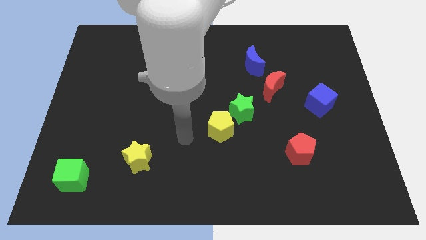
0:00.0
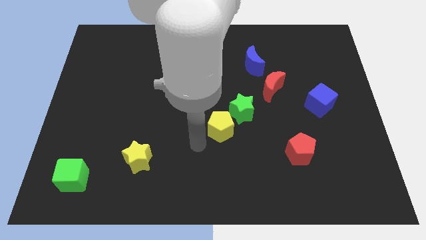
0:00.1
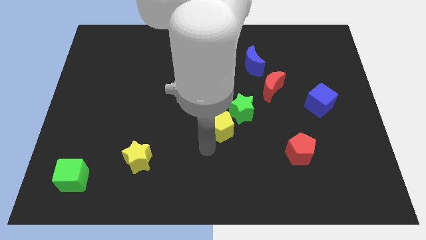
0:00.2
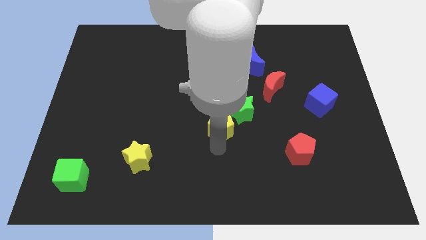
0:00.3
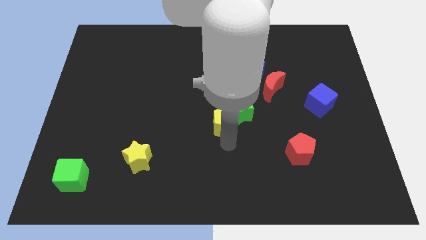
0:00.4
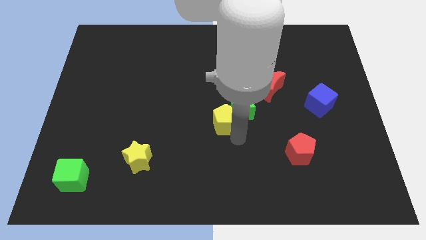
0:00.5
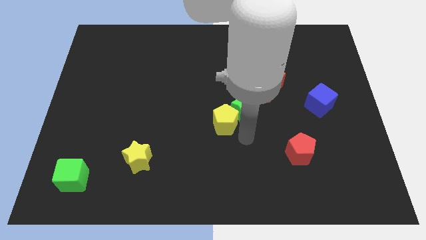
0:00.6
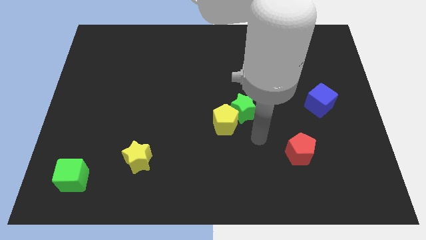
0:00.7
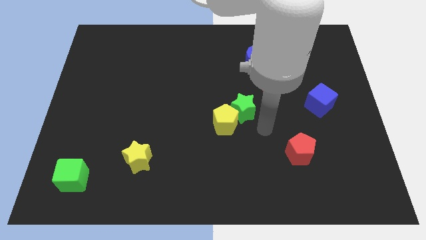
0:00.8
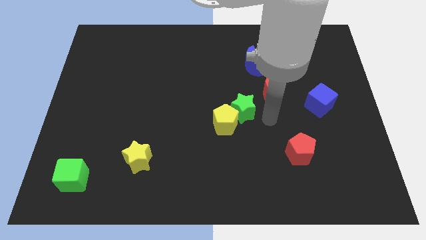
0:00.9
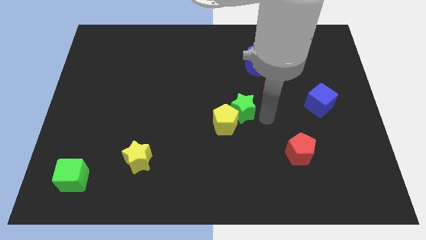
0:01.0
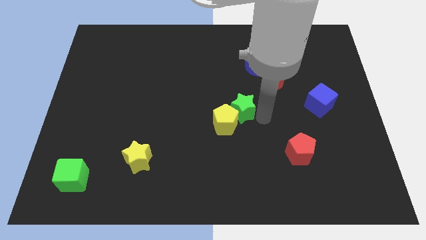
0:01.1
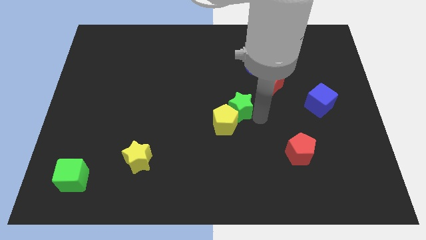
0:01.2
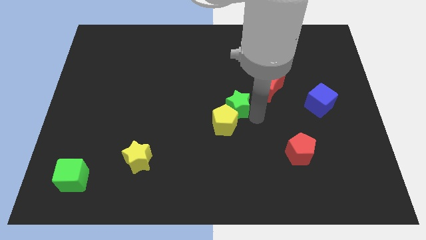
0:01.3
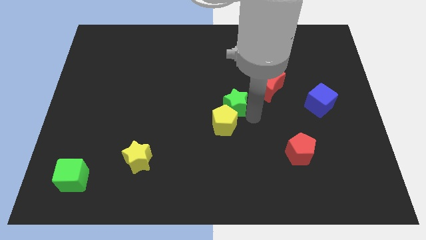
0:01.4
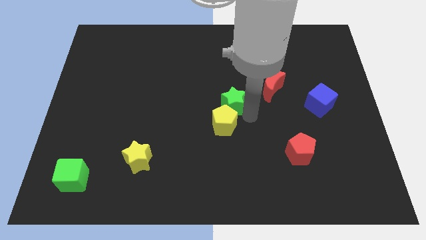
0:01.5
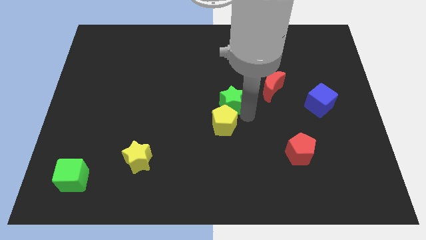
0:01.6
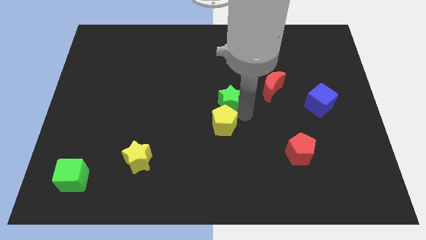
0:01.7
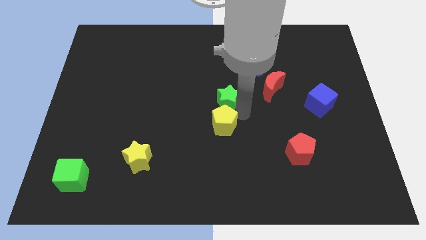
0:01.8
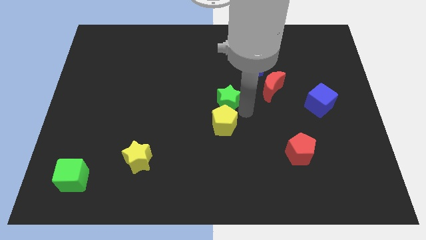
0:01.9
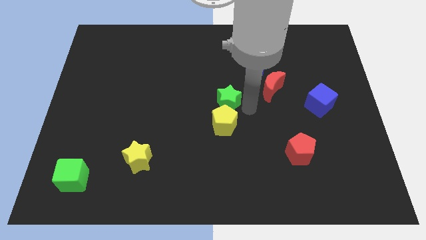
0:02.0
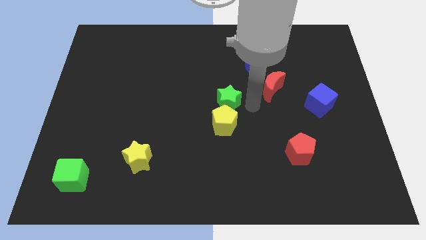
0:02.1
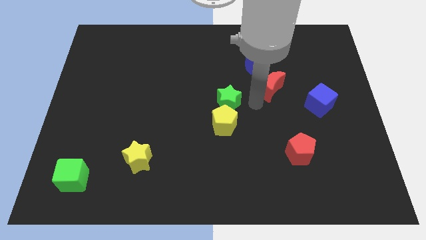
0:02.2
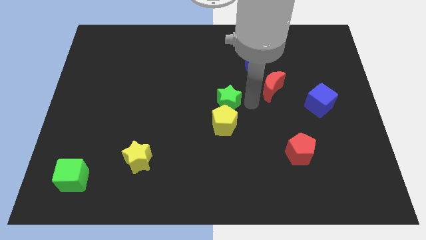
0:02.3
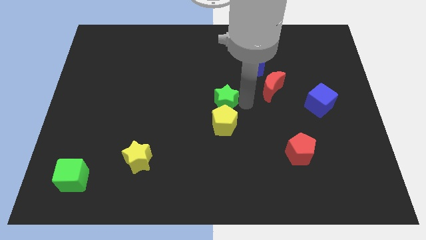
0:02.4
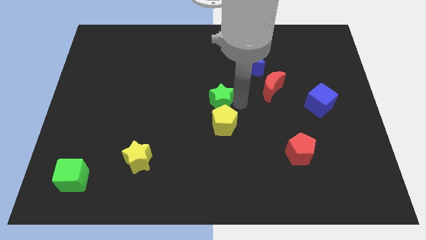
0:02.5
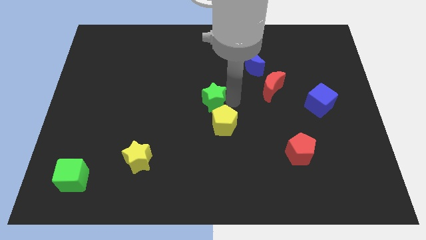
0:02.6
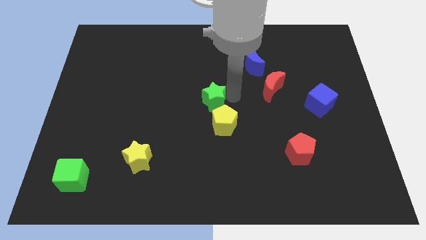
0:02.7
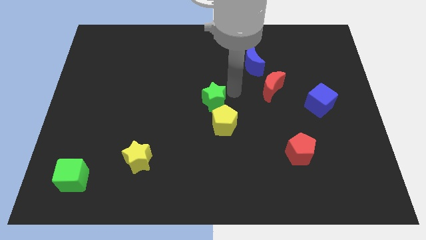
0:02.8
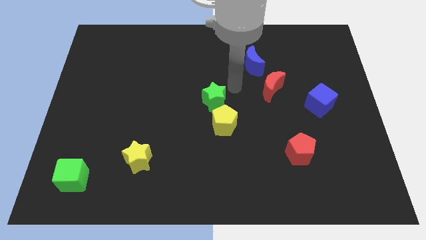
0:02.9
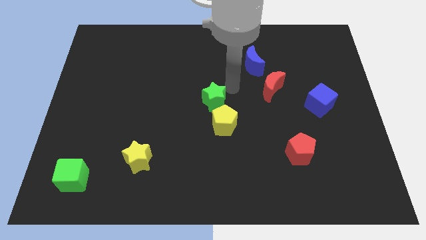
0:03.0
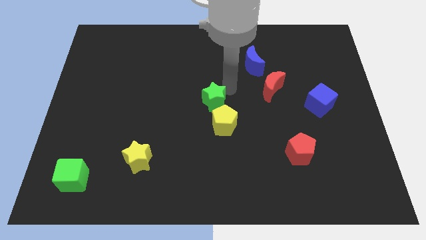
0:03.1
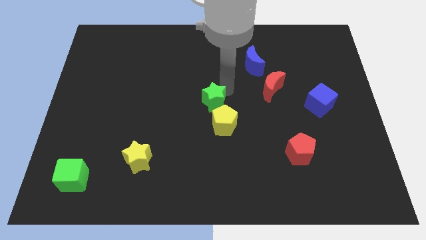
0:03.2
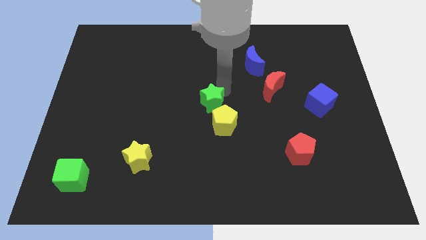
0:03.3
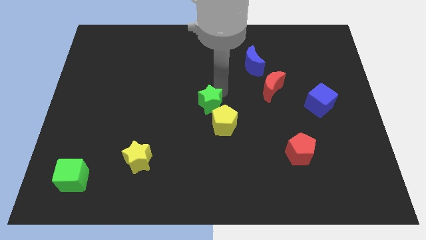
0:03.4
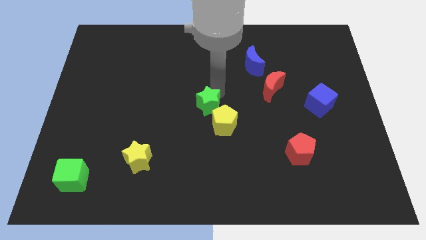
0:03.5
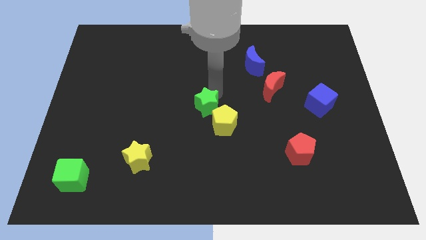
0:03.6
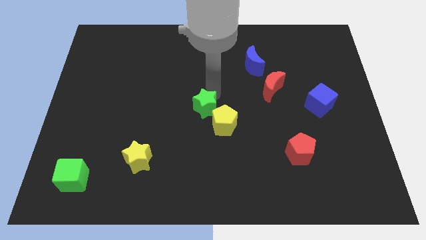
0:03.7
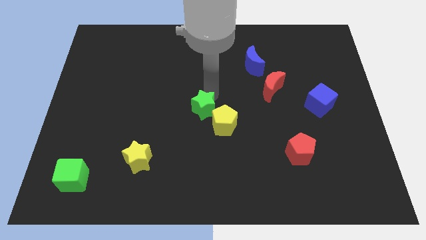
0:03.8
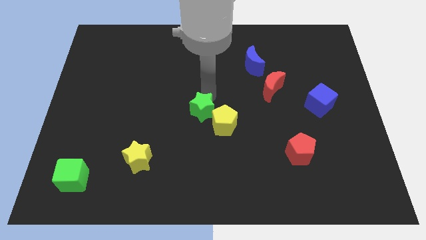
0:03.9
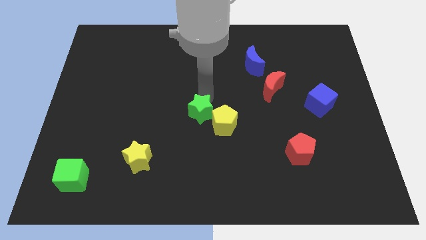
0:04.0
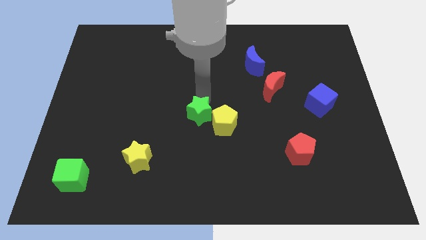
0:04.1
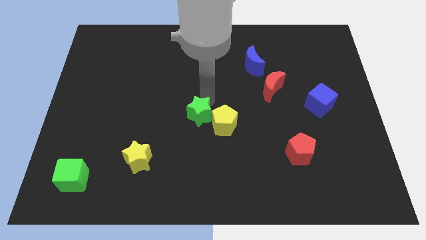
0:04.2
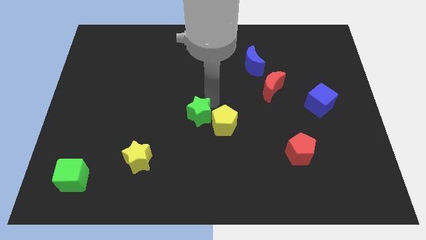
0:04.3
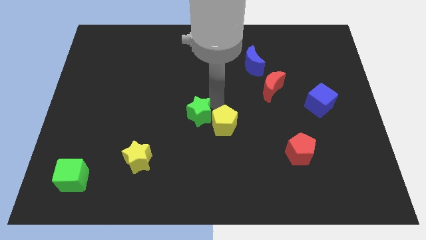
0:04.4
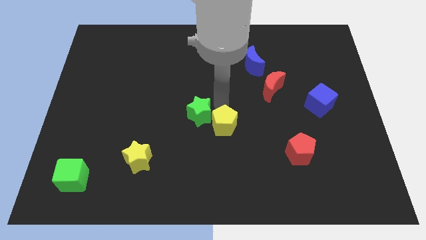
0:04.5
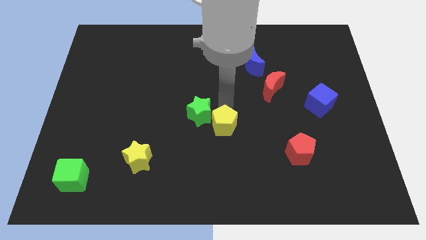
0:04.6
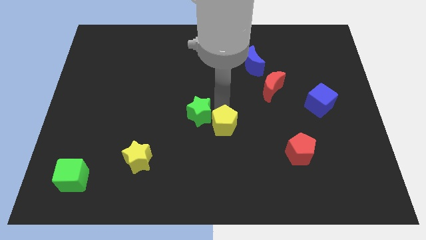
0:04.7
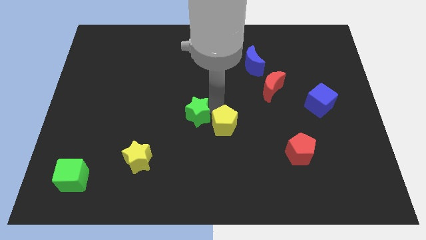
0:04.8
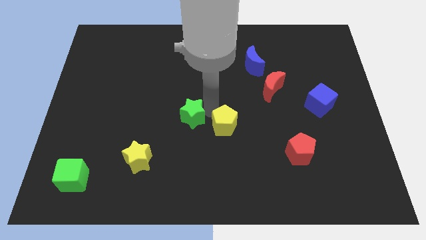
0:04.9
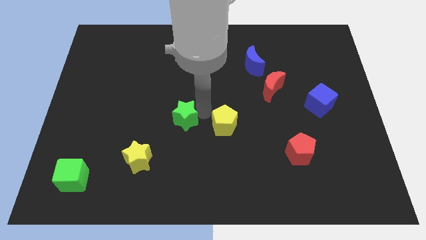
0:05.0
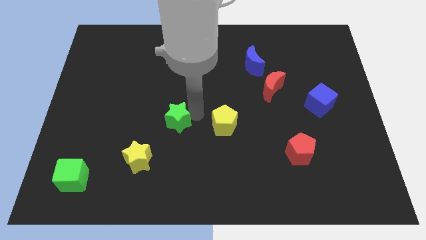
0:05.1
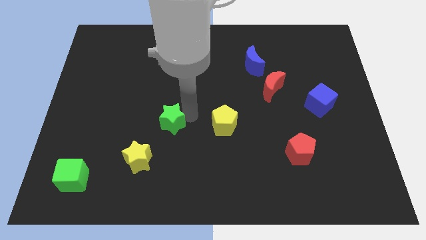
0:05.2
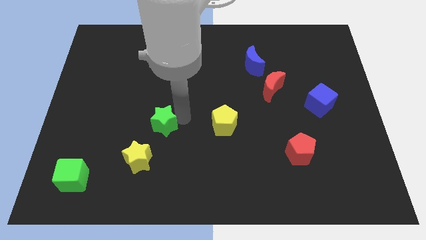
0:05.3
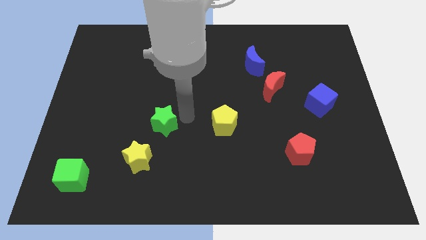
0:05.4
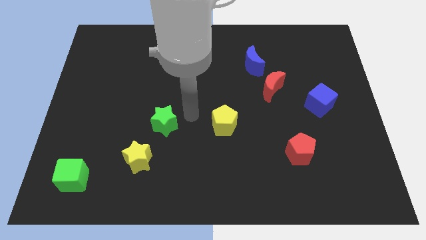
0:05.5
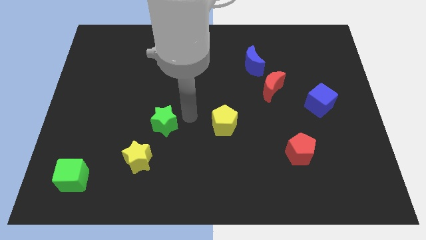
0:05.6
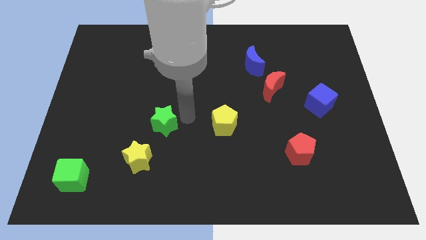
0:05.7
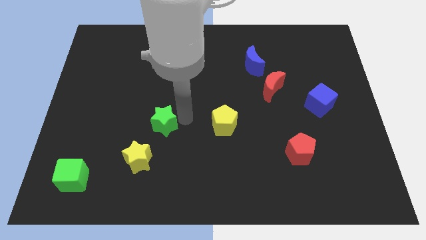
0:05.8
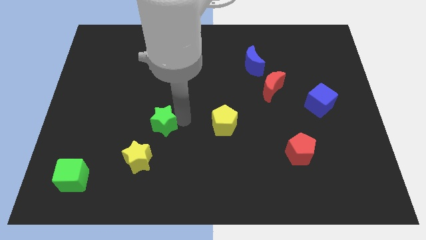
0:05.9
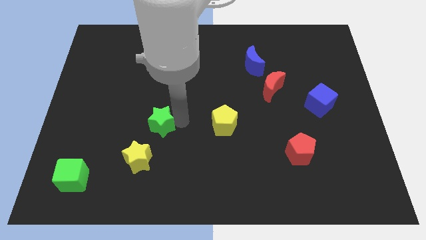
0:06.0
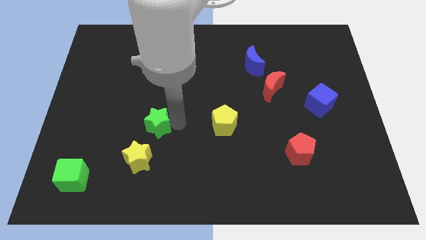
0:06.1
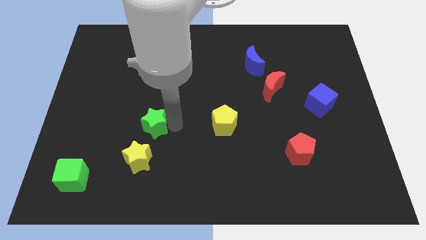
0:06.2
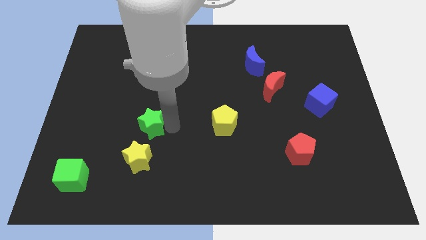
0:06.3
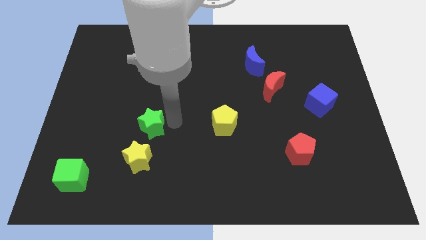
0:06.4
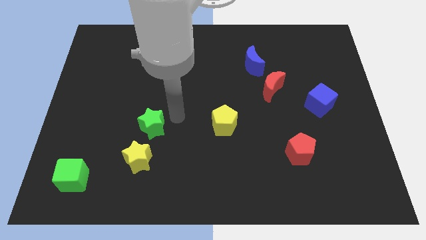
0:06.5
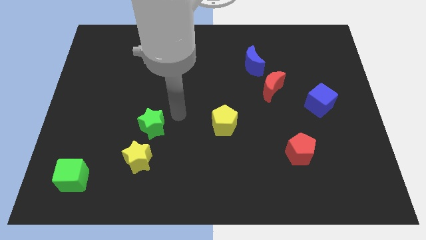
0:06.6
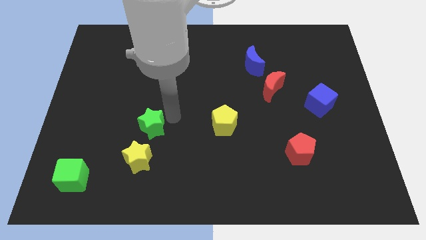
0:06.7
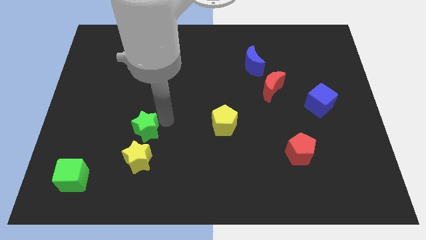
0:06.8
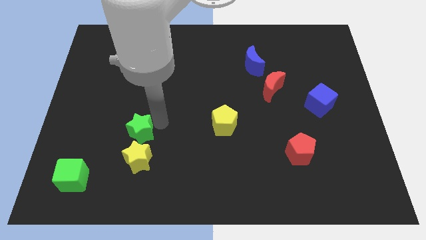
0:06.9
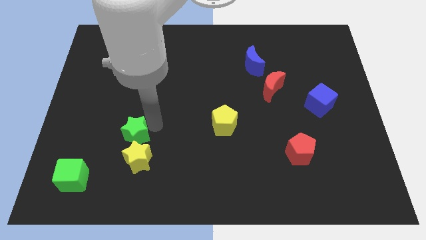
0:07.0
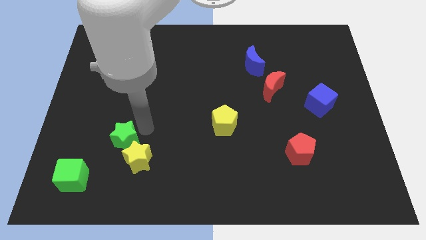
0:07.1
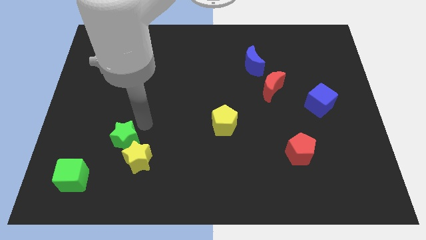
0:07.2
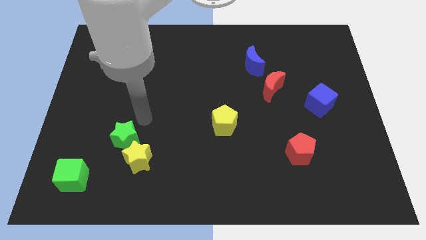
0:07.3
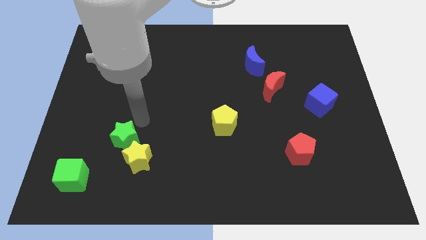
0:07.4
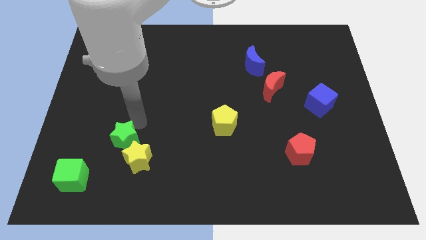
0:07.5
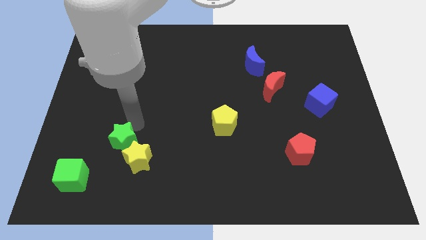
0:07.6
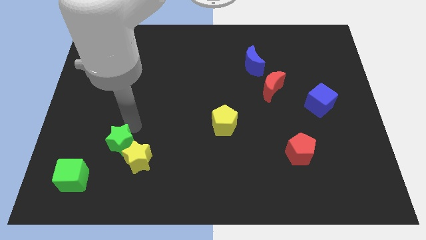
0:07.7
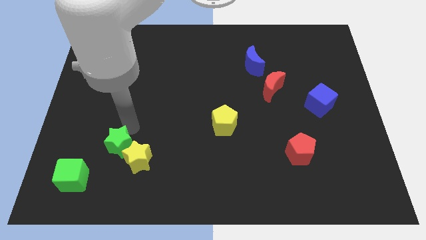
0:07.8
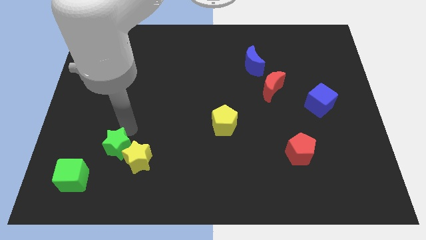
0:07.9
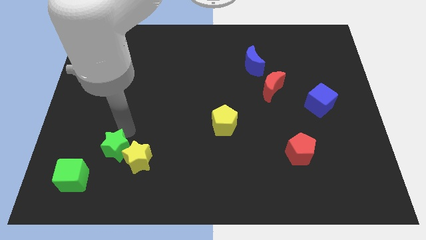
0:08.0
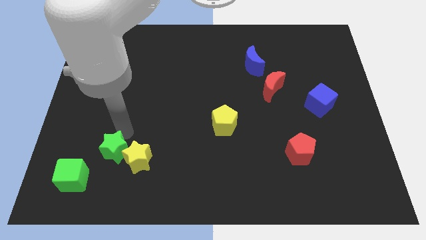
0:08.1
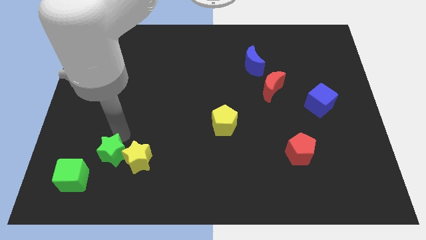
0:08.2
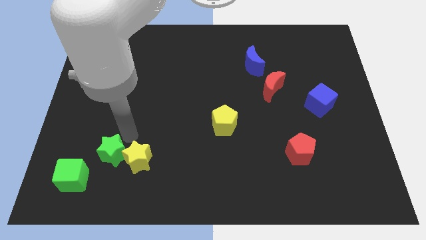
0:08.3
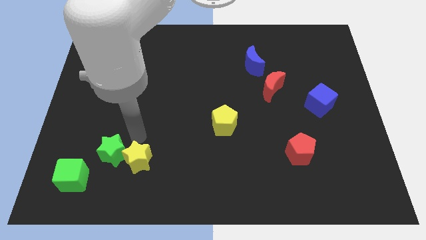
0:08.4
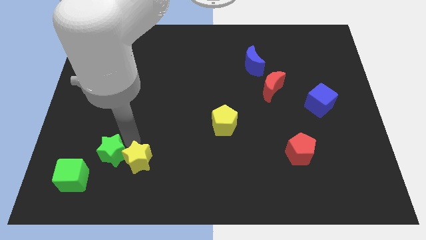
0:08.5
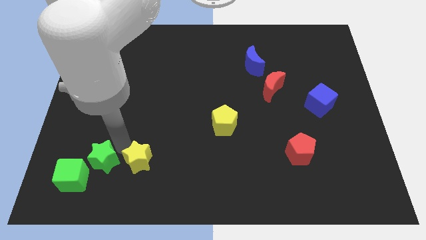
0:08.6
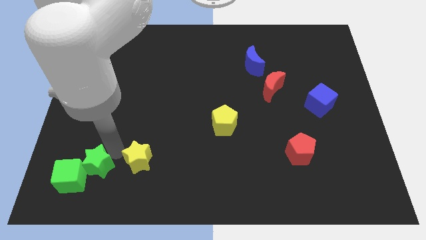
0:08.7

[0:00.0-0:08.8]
slide the green star close to the green cube
